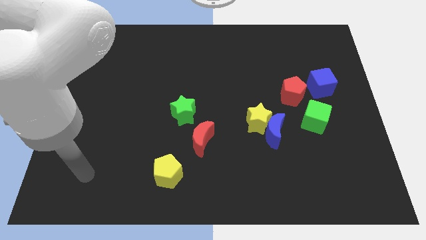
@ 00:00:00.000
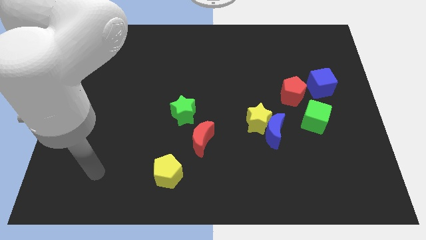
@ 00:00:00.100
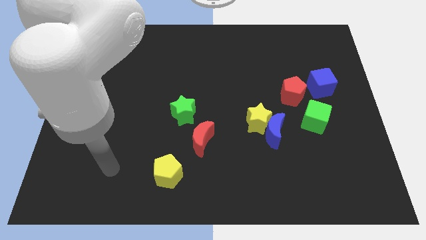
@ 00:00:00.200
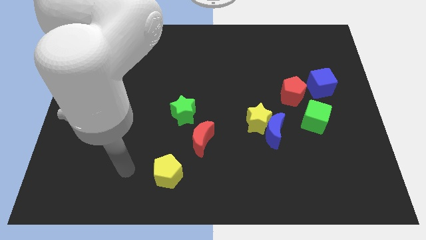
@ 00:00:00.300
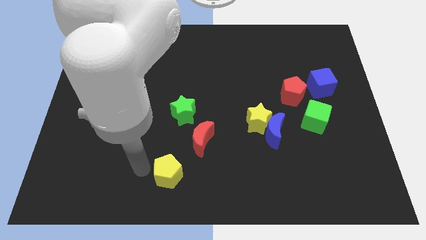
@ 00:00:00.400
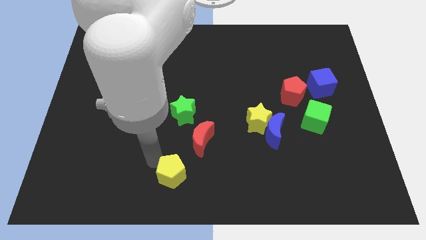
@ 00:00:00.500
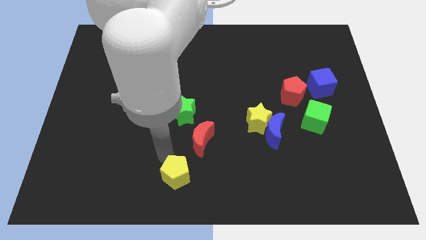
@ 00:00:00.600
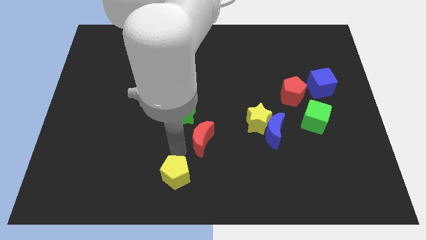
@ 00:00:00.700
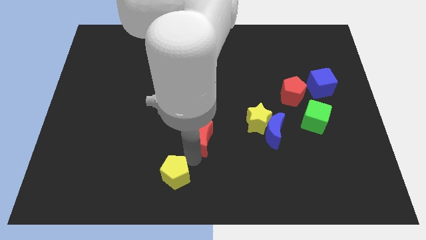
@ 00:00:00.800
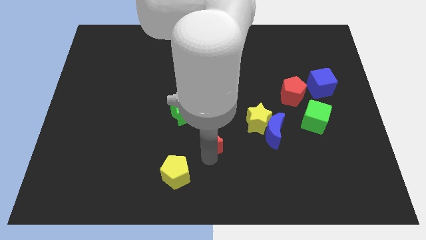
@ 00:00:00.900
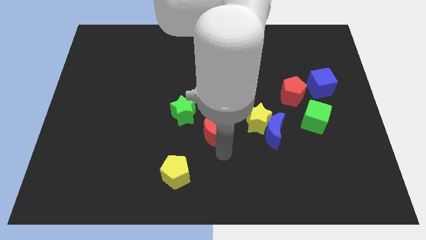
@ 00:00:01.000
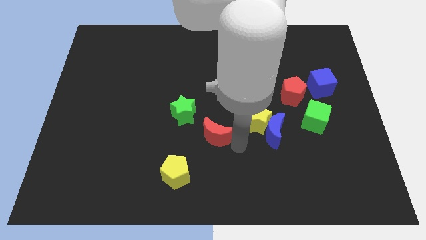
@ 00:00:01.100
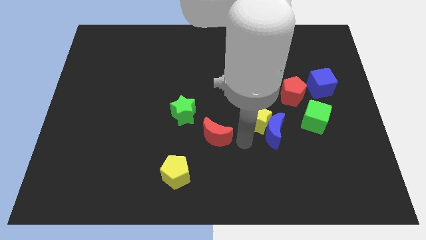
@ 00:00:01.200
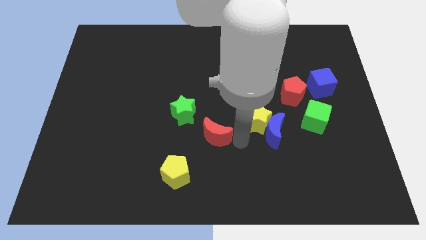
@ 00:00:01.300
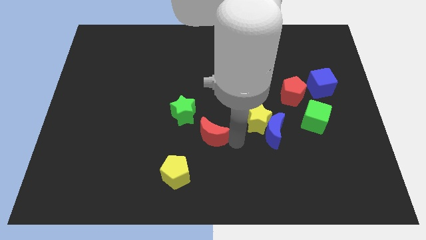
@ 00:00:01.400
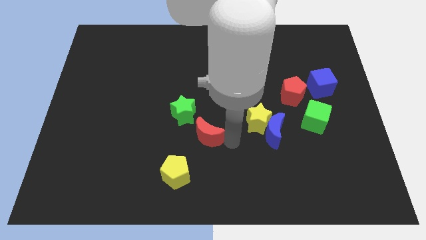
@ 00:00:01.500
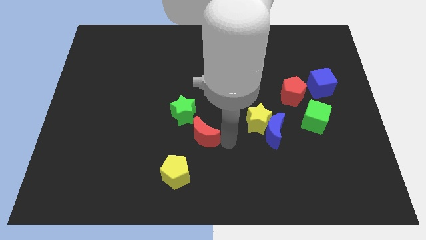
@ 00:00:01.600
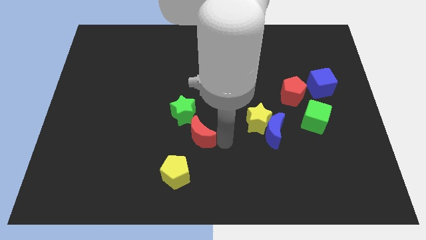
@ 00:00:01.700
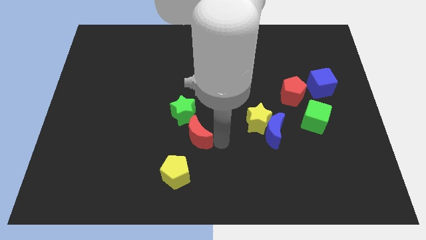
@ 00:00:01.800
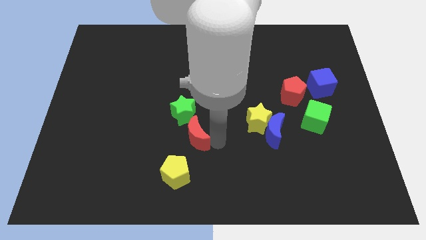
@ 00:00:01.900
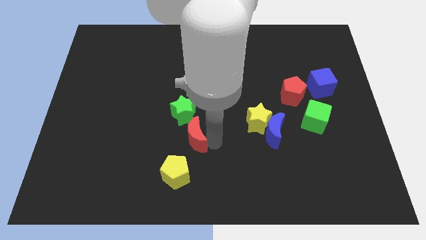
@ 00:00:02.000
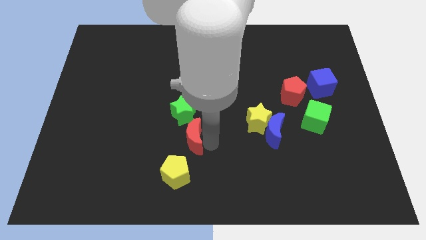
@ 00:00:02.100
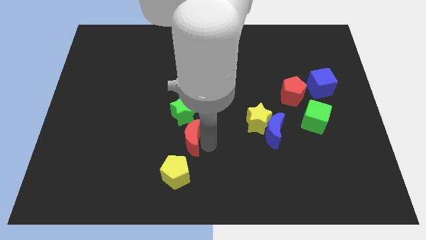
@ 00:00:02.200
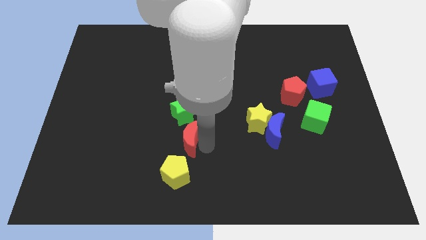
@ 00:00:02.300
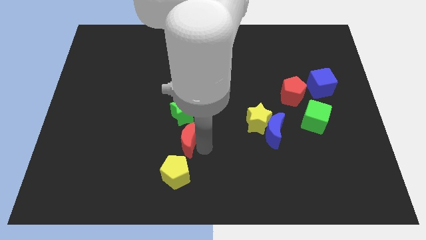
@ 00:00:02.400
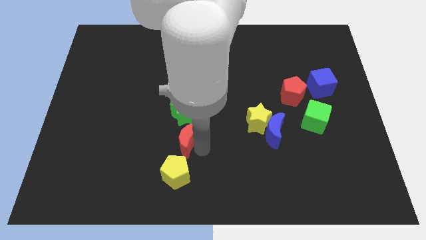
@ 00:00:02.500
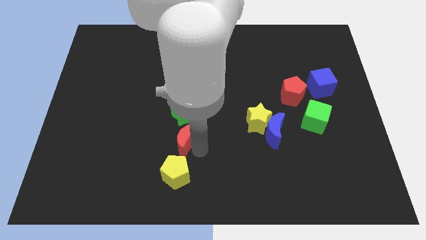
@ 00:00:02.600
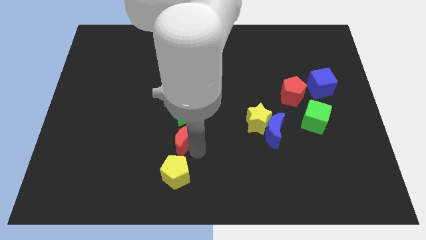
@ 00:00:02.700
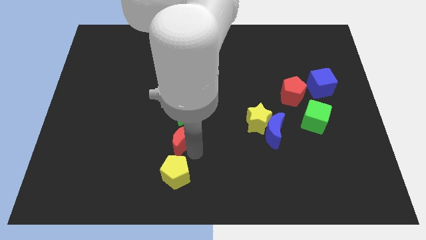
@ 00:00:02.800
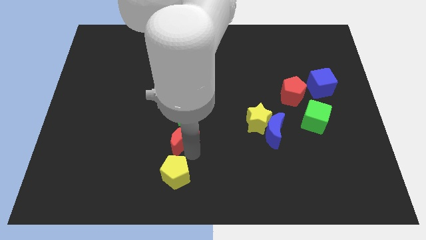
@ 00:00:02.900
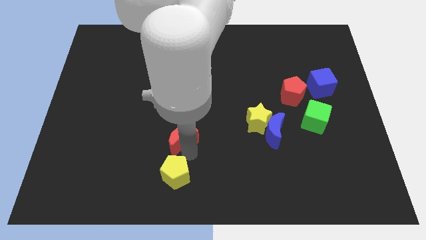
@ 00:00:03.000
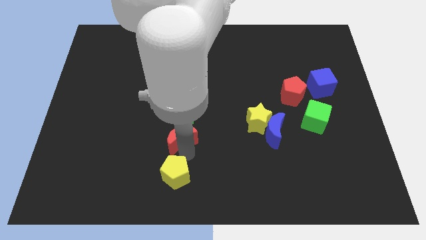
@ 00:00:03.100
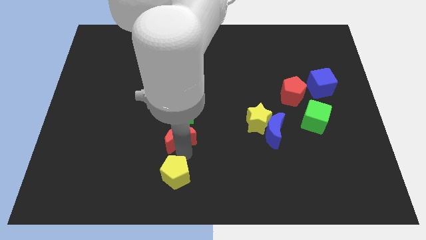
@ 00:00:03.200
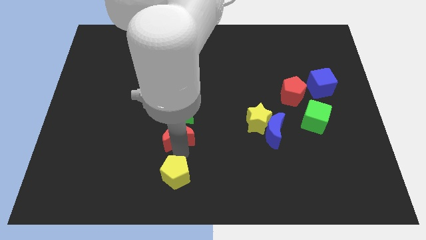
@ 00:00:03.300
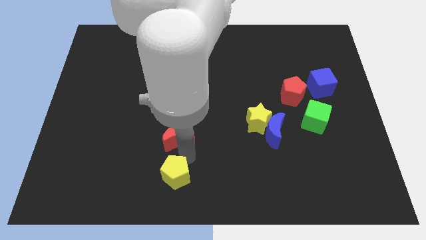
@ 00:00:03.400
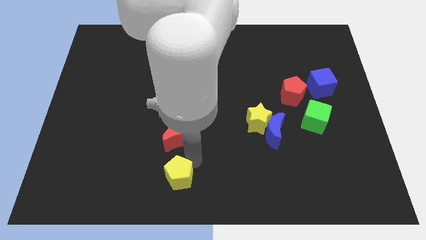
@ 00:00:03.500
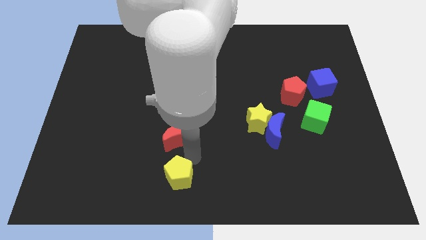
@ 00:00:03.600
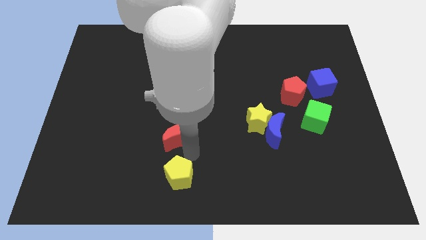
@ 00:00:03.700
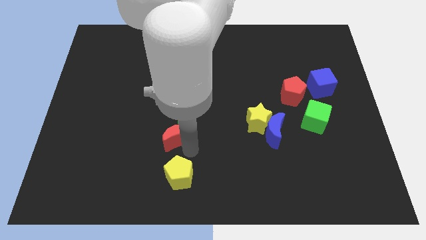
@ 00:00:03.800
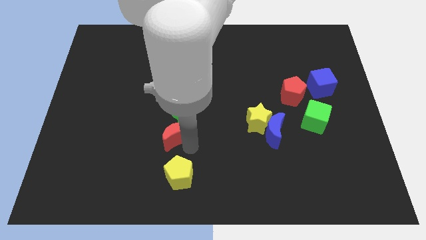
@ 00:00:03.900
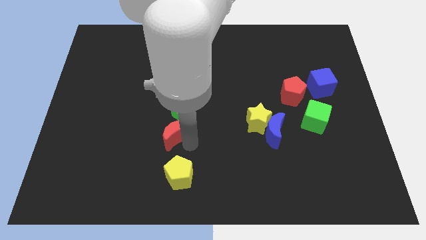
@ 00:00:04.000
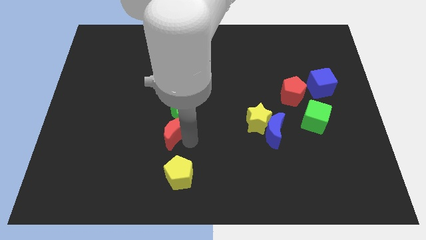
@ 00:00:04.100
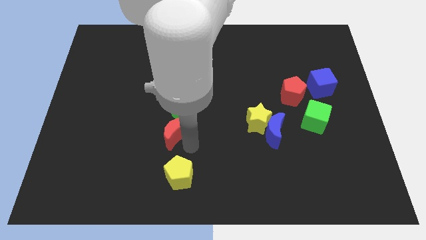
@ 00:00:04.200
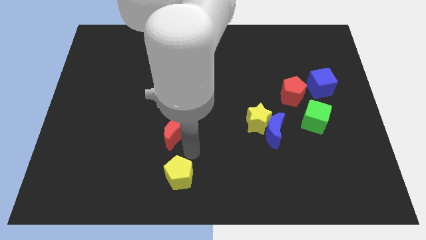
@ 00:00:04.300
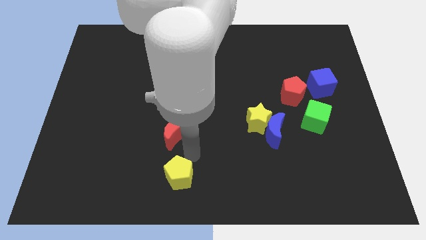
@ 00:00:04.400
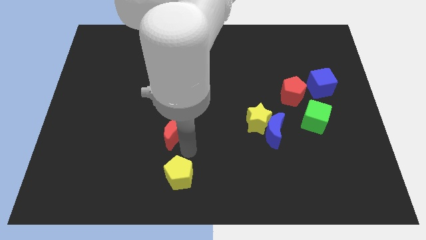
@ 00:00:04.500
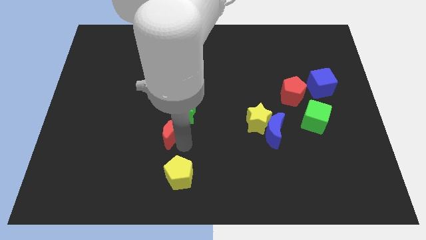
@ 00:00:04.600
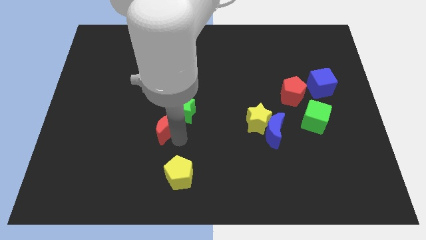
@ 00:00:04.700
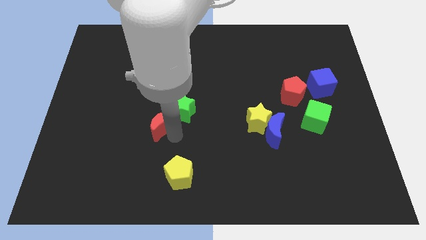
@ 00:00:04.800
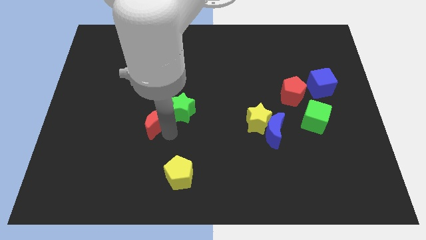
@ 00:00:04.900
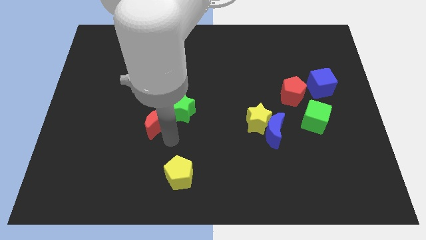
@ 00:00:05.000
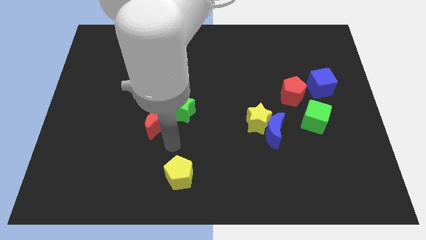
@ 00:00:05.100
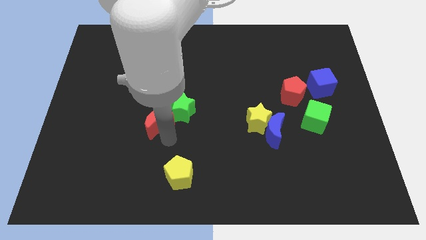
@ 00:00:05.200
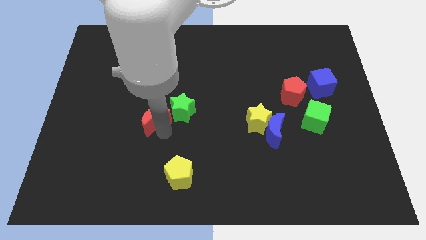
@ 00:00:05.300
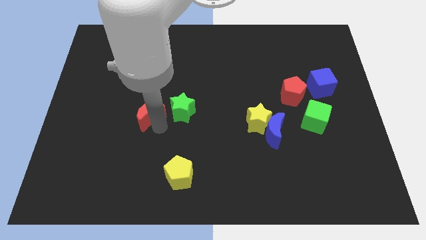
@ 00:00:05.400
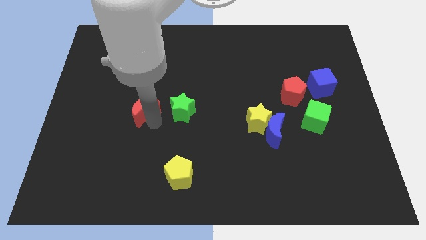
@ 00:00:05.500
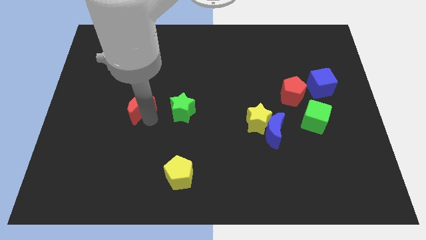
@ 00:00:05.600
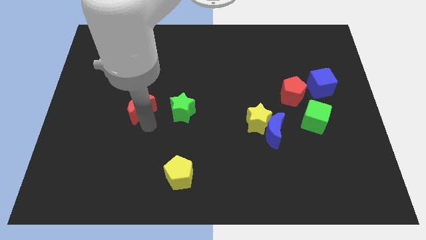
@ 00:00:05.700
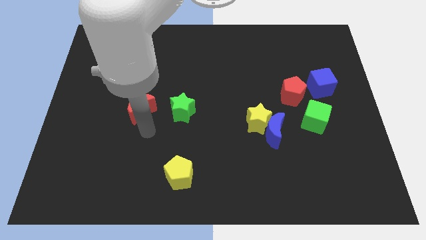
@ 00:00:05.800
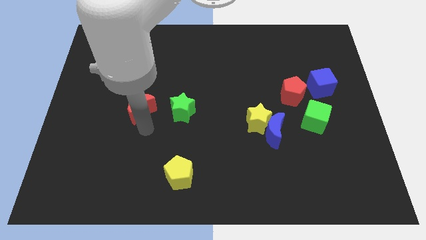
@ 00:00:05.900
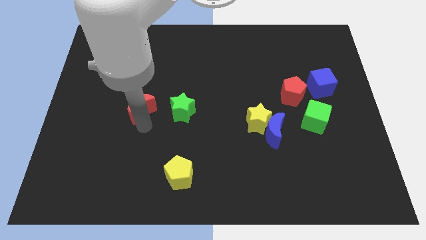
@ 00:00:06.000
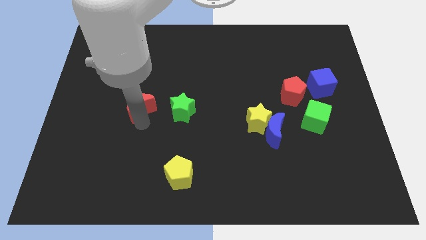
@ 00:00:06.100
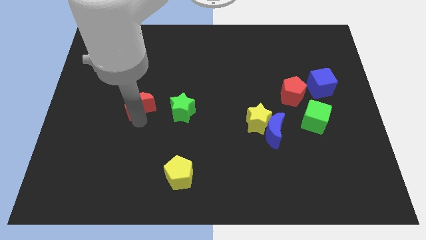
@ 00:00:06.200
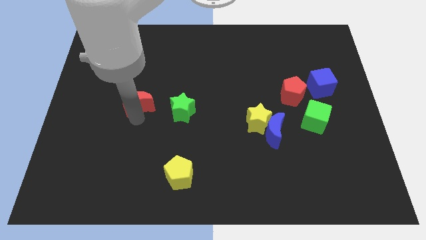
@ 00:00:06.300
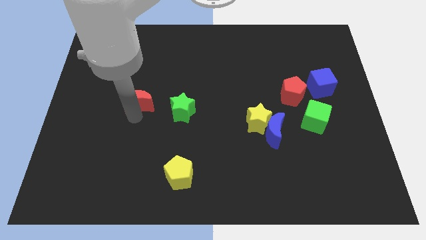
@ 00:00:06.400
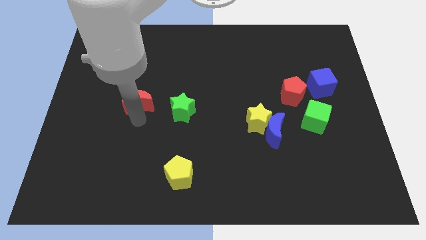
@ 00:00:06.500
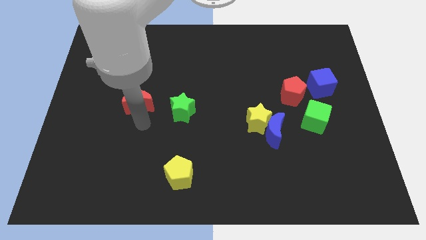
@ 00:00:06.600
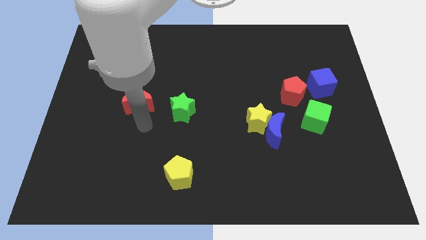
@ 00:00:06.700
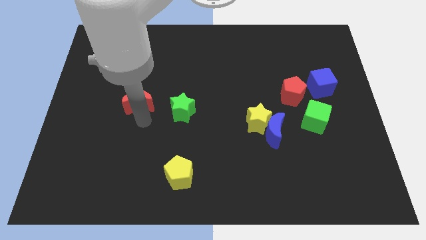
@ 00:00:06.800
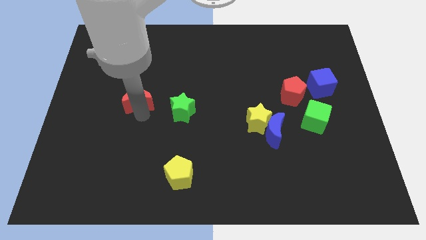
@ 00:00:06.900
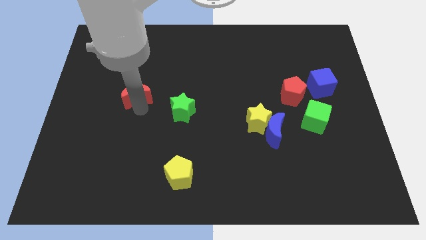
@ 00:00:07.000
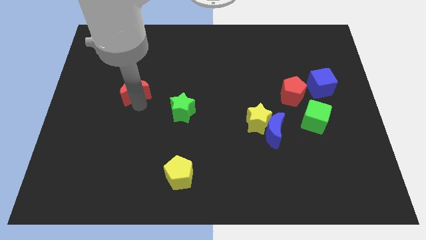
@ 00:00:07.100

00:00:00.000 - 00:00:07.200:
push the red moon up and to the left

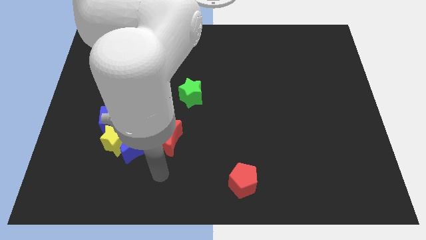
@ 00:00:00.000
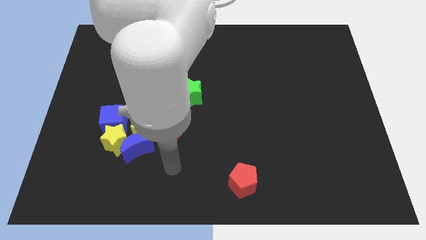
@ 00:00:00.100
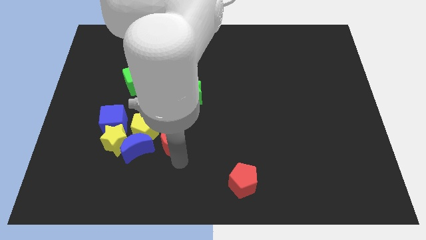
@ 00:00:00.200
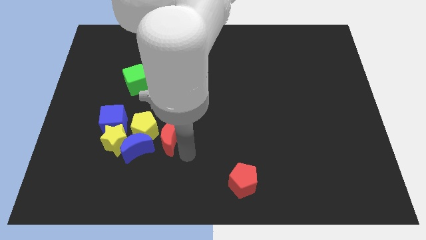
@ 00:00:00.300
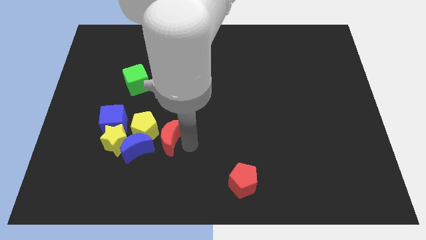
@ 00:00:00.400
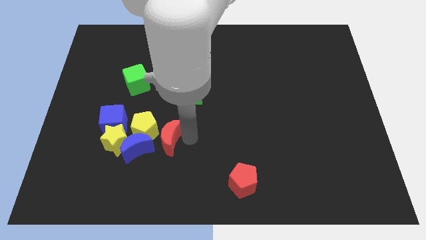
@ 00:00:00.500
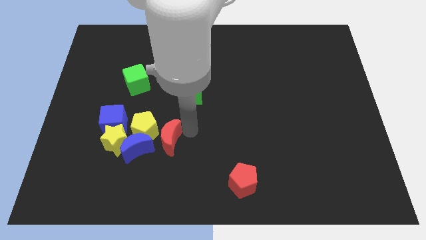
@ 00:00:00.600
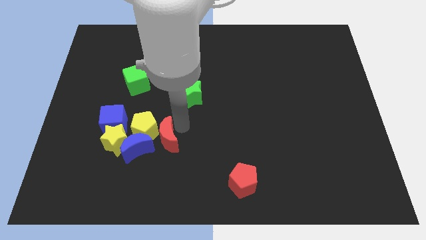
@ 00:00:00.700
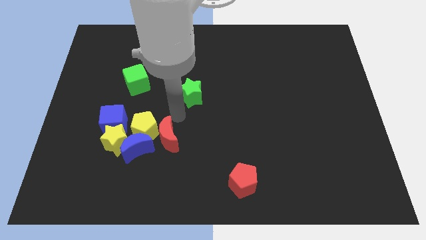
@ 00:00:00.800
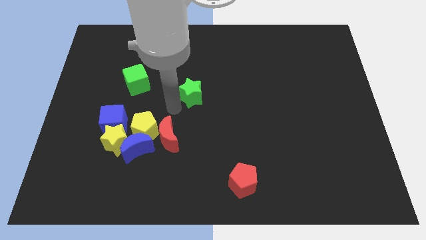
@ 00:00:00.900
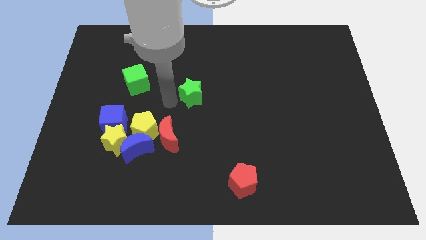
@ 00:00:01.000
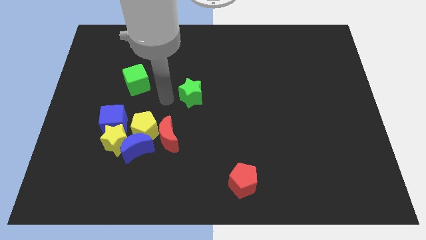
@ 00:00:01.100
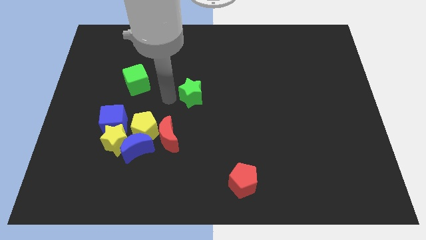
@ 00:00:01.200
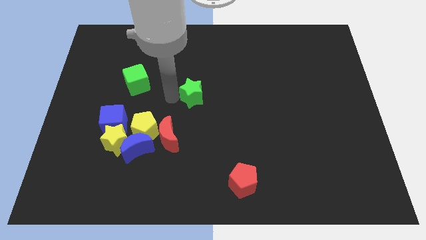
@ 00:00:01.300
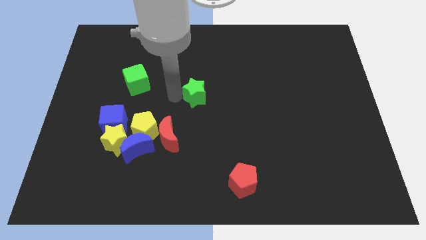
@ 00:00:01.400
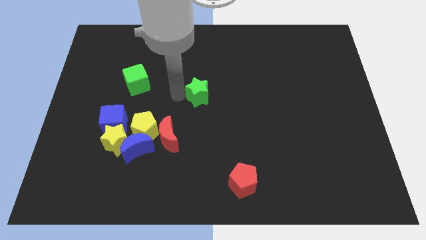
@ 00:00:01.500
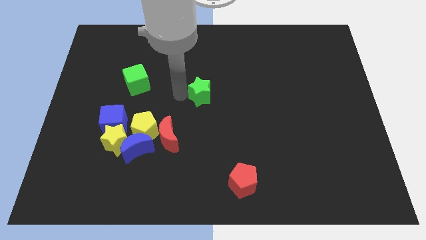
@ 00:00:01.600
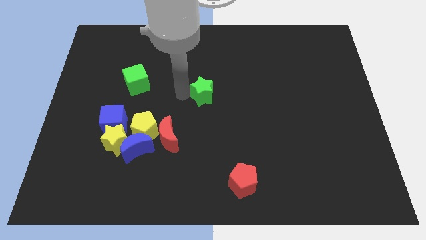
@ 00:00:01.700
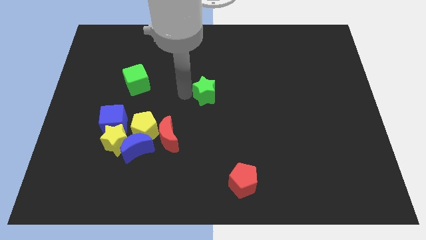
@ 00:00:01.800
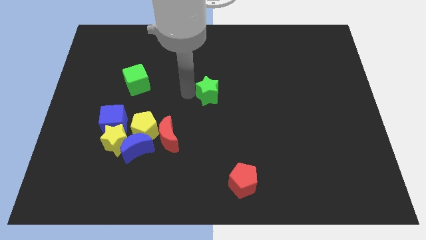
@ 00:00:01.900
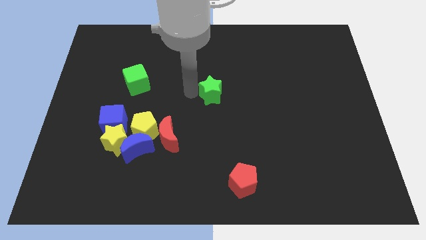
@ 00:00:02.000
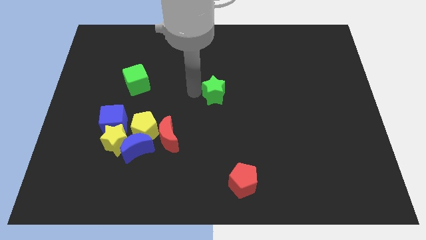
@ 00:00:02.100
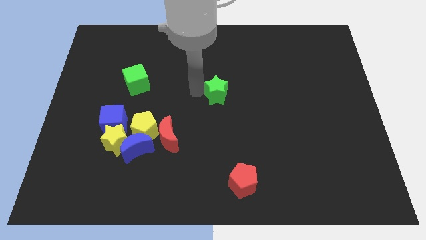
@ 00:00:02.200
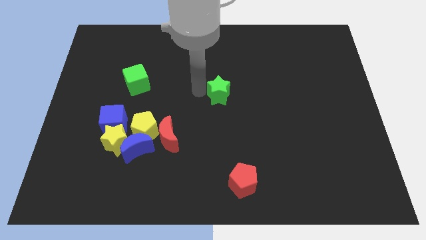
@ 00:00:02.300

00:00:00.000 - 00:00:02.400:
slightly push the green star to the right
